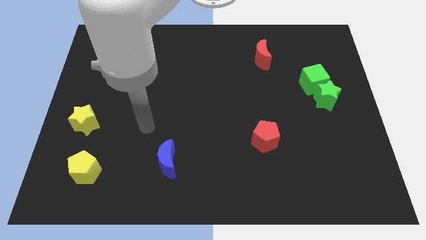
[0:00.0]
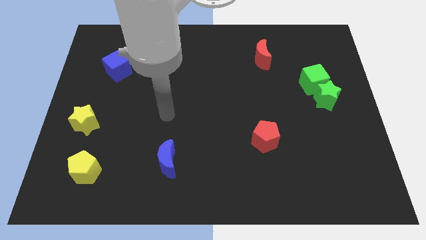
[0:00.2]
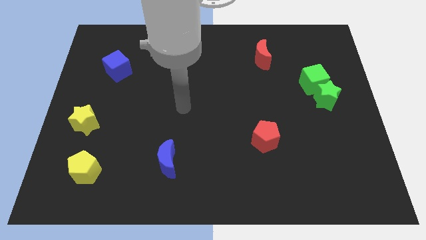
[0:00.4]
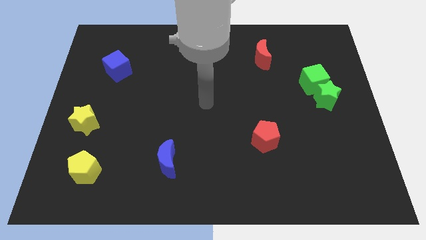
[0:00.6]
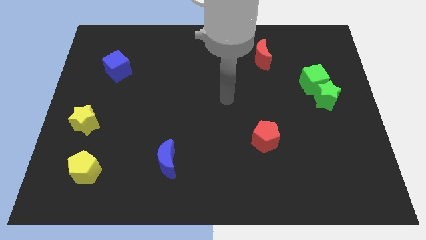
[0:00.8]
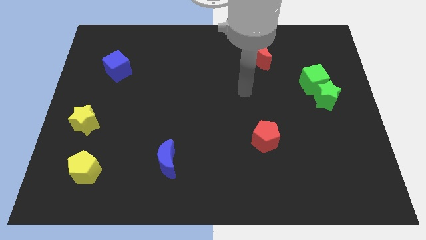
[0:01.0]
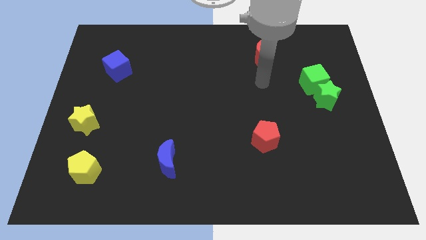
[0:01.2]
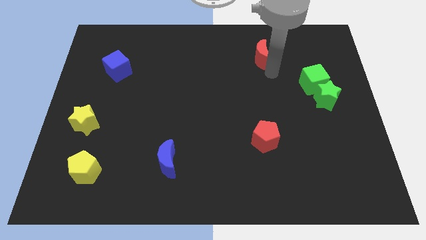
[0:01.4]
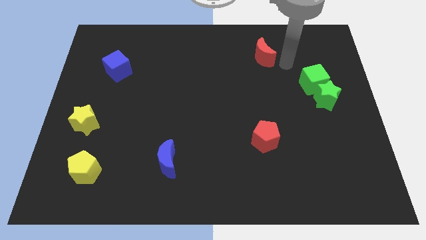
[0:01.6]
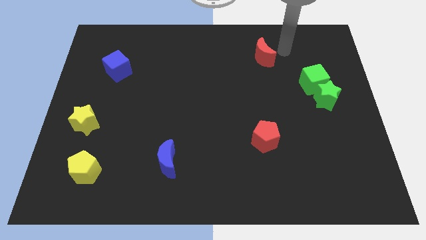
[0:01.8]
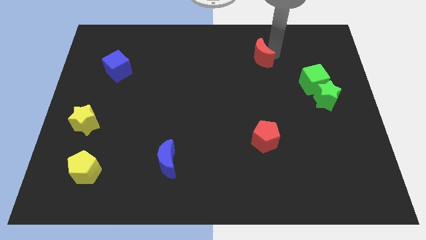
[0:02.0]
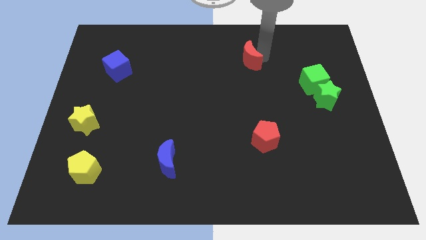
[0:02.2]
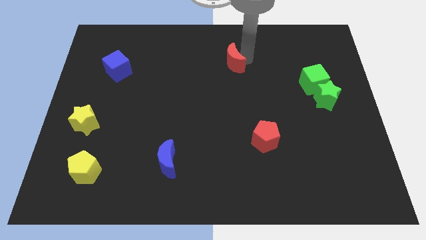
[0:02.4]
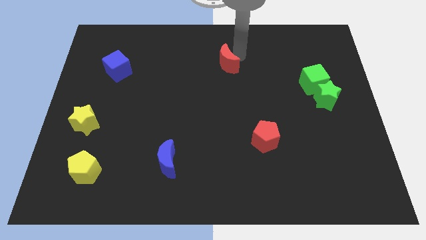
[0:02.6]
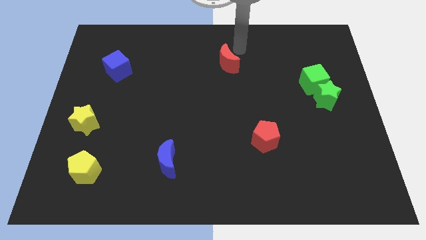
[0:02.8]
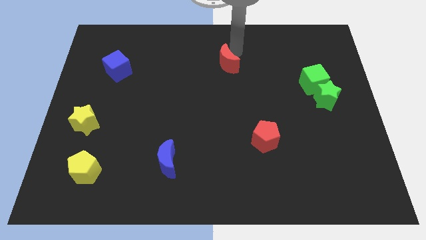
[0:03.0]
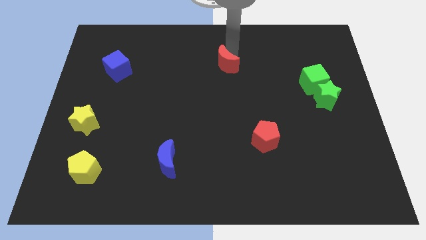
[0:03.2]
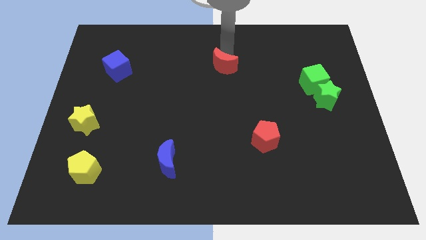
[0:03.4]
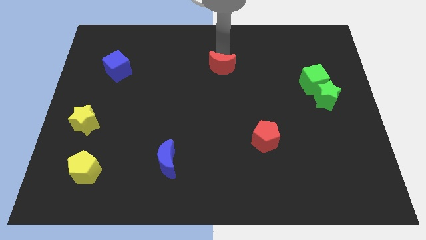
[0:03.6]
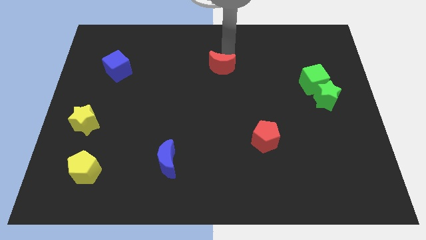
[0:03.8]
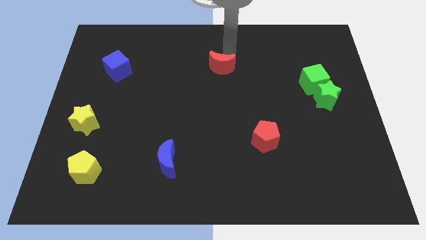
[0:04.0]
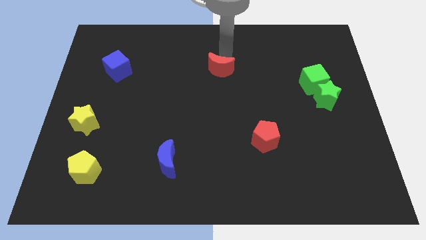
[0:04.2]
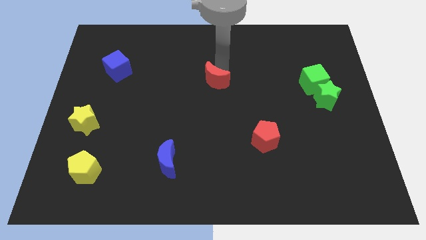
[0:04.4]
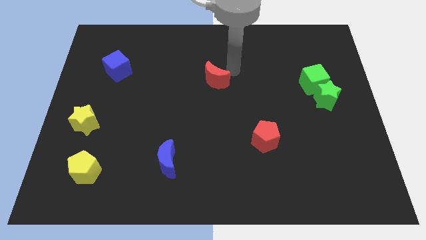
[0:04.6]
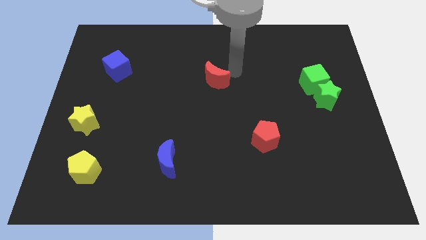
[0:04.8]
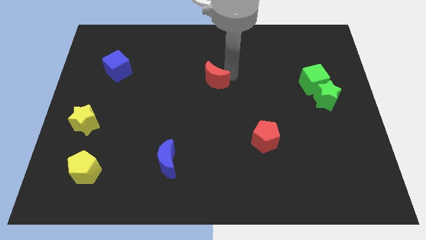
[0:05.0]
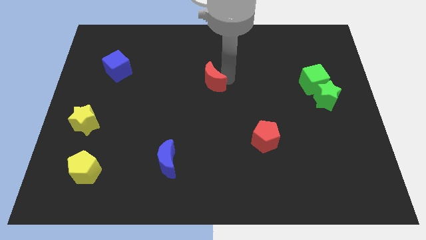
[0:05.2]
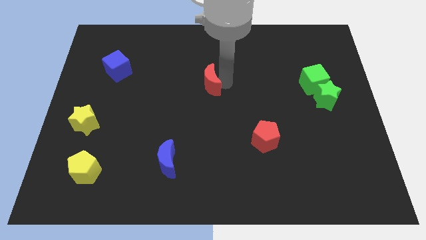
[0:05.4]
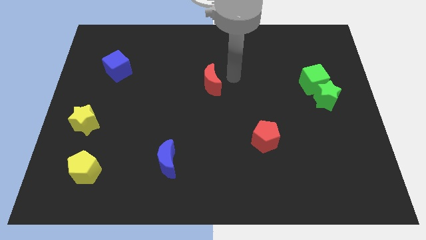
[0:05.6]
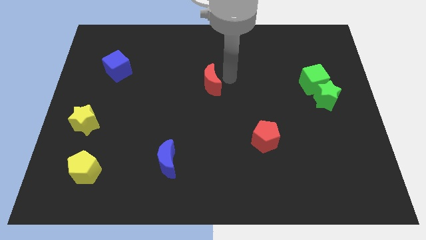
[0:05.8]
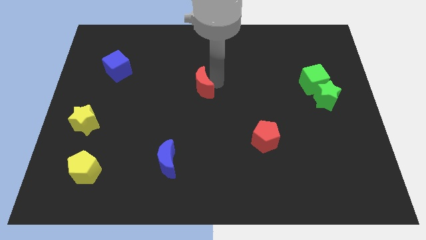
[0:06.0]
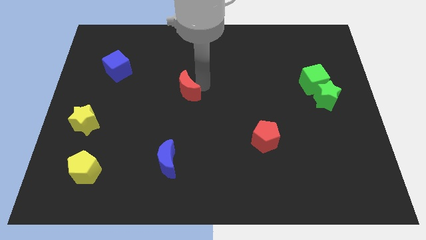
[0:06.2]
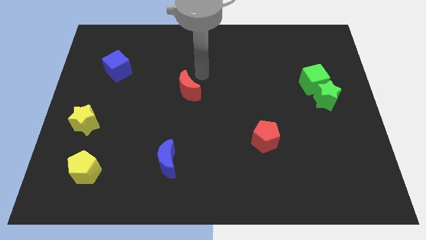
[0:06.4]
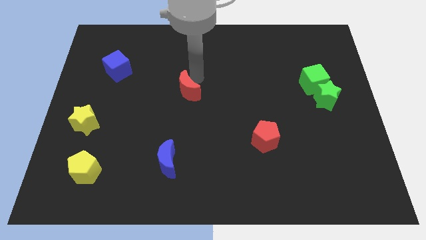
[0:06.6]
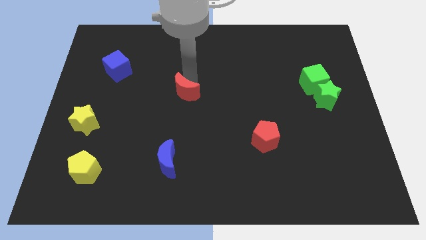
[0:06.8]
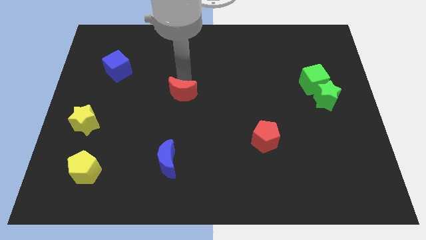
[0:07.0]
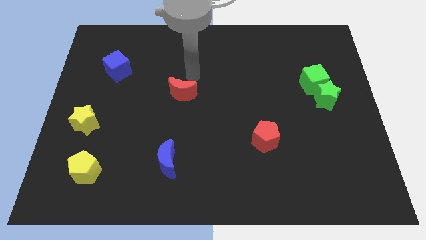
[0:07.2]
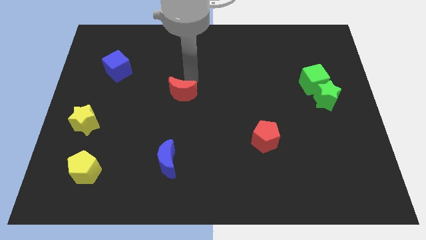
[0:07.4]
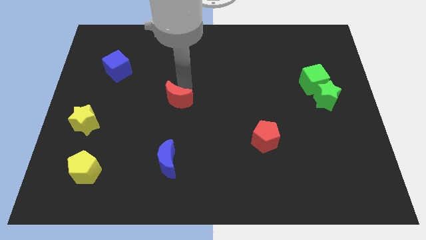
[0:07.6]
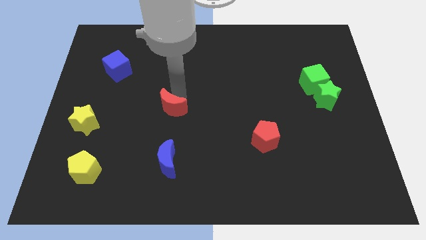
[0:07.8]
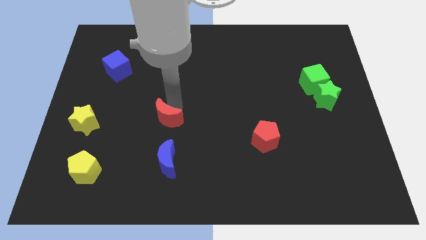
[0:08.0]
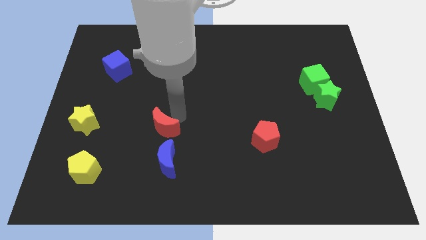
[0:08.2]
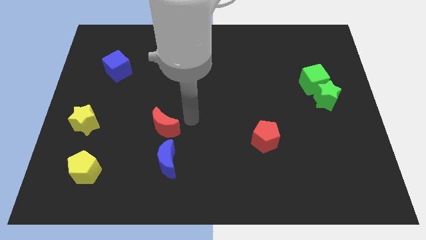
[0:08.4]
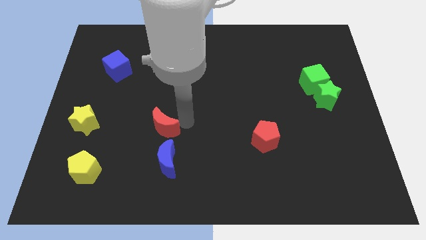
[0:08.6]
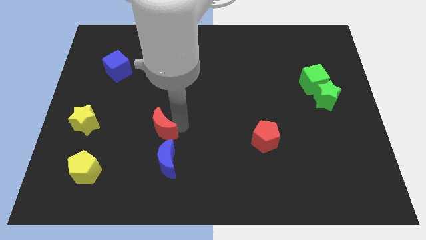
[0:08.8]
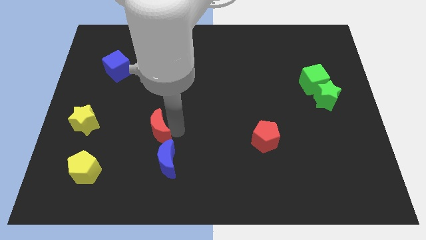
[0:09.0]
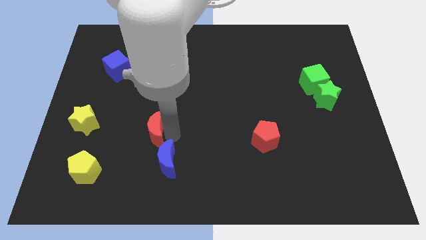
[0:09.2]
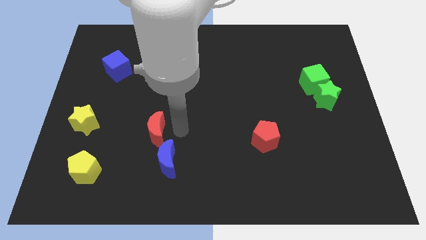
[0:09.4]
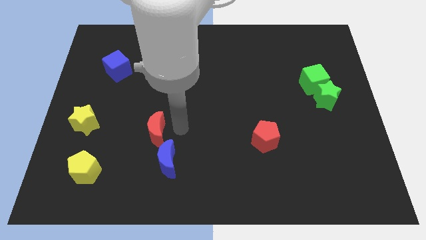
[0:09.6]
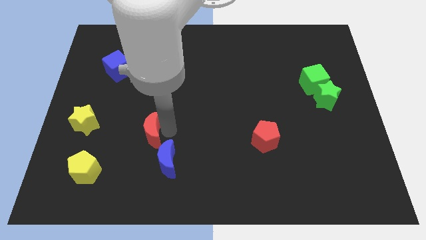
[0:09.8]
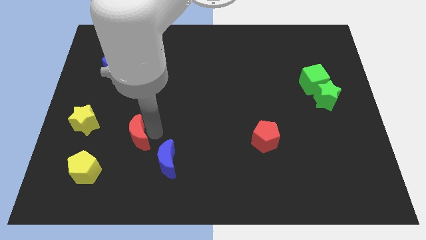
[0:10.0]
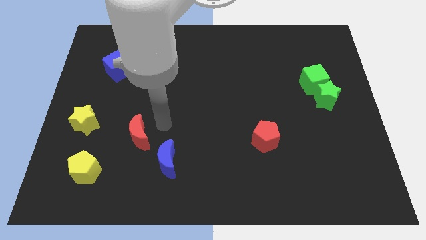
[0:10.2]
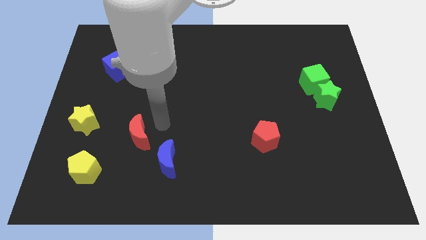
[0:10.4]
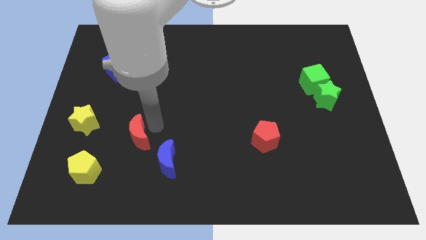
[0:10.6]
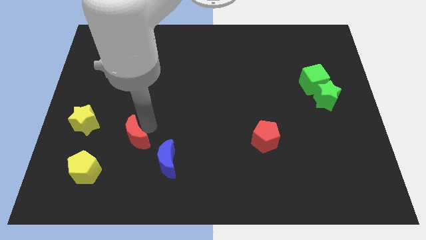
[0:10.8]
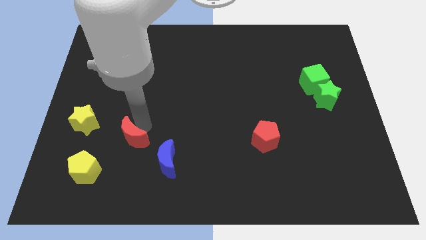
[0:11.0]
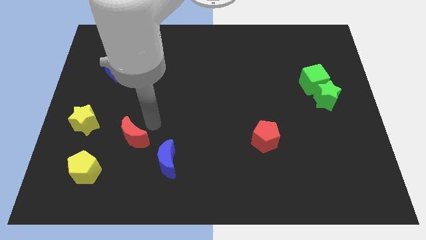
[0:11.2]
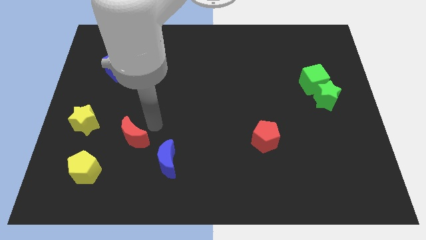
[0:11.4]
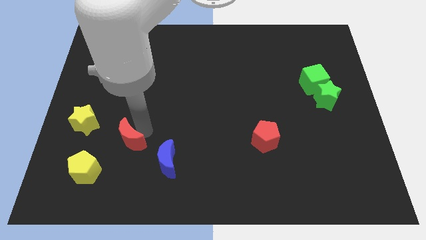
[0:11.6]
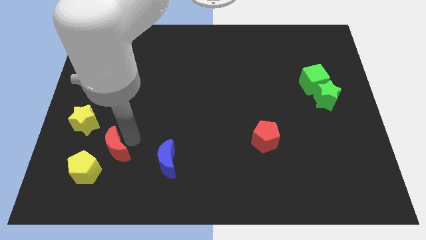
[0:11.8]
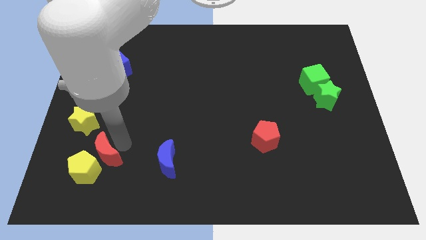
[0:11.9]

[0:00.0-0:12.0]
move the red moon close to the yellow pentagon

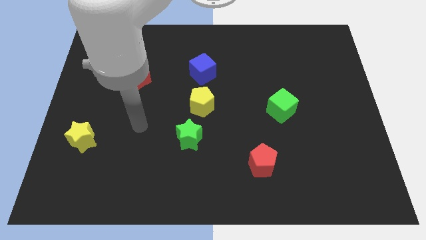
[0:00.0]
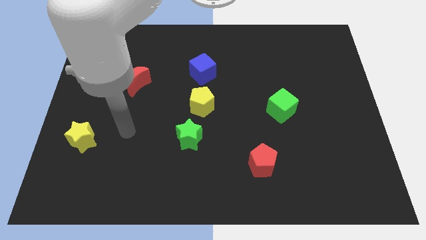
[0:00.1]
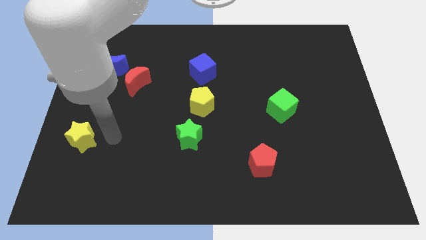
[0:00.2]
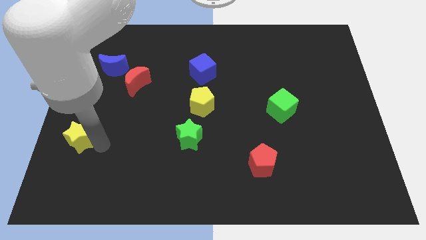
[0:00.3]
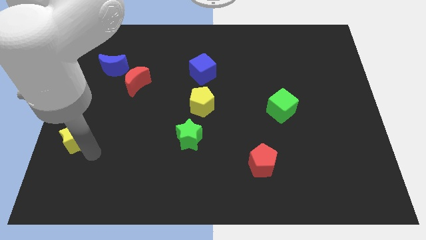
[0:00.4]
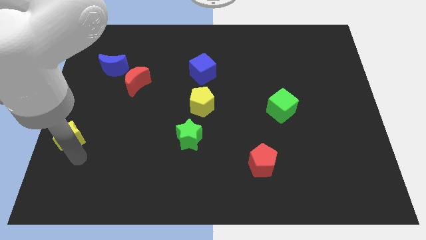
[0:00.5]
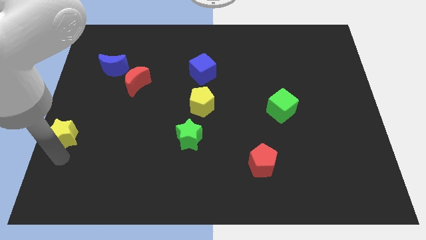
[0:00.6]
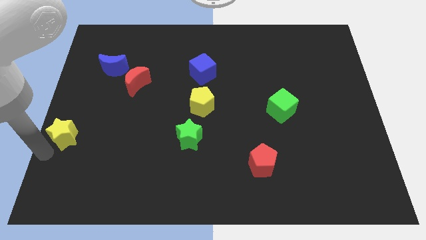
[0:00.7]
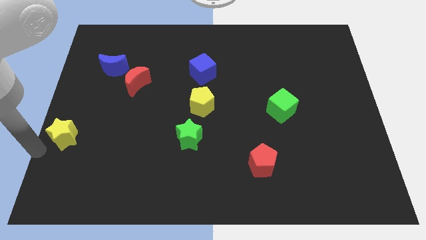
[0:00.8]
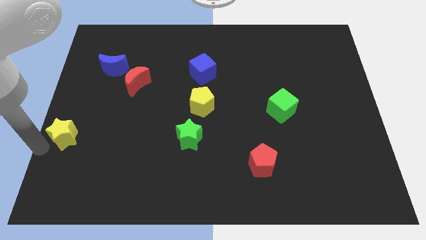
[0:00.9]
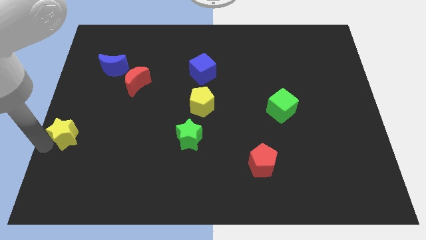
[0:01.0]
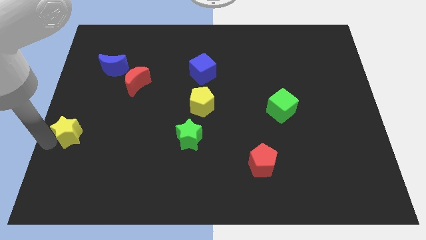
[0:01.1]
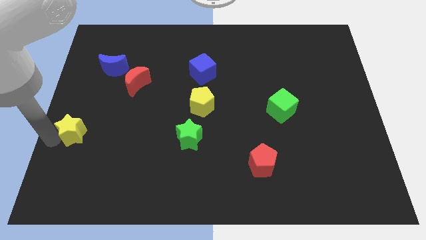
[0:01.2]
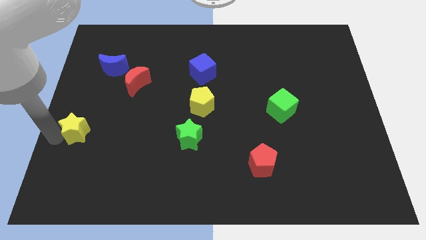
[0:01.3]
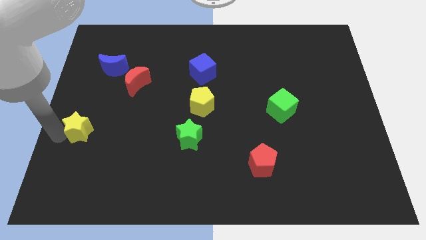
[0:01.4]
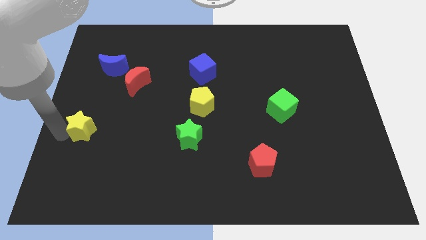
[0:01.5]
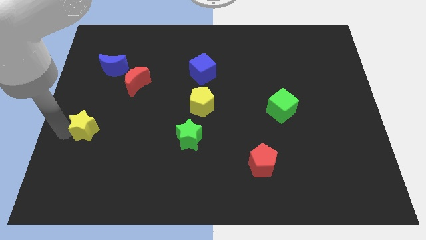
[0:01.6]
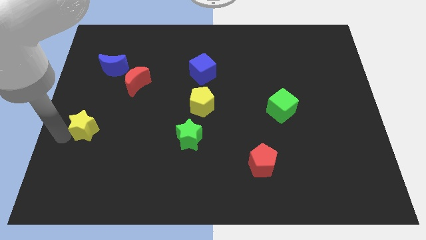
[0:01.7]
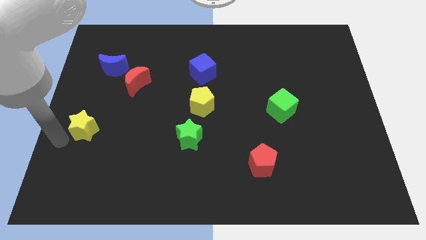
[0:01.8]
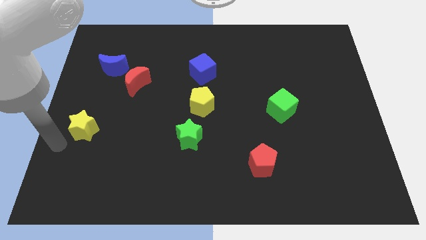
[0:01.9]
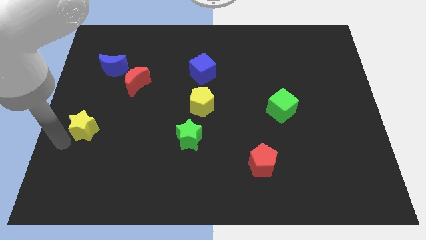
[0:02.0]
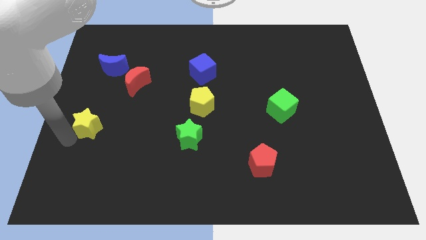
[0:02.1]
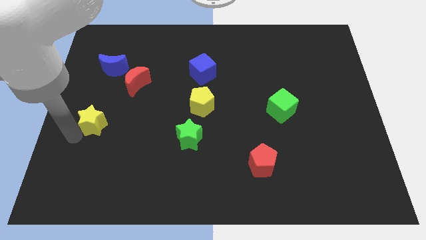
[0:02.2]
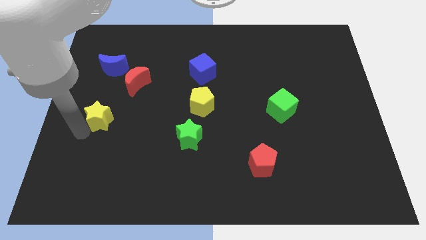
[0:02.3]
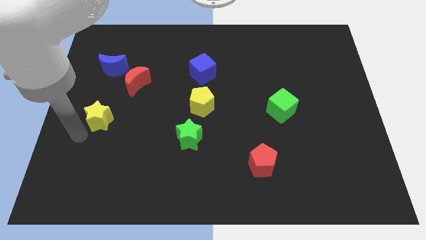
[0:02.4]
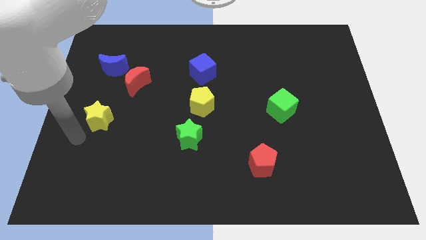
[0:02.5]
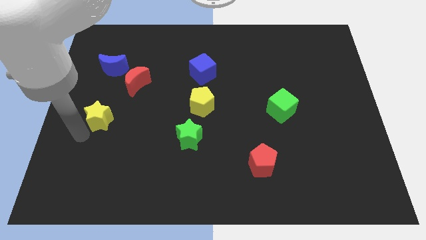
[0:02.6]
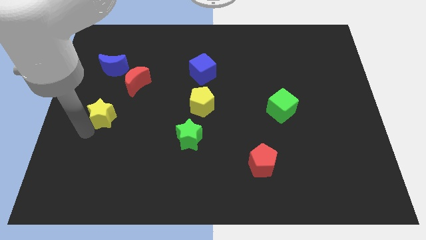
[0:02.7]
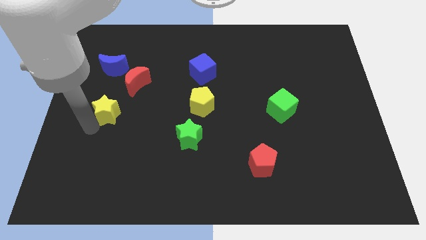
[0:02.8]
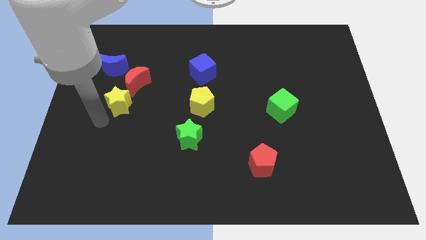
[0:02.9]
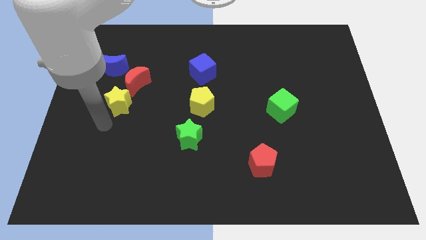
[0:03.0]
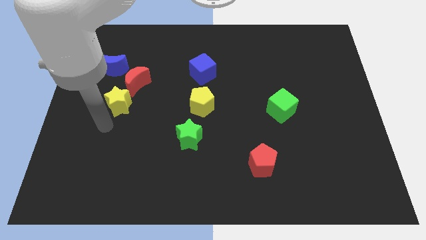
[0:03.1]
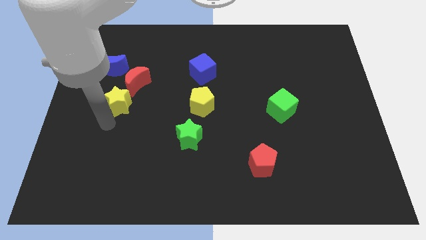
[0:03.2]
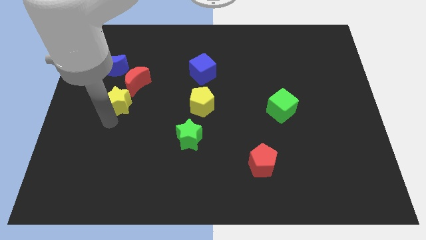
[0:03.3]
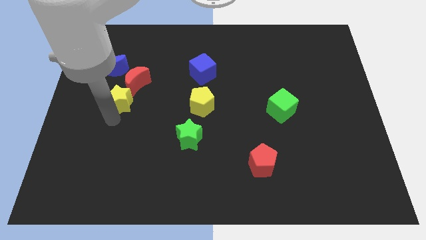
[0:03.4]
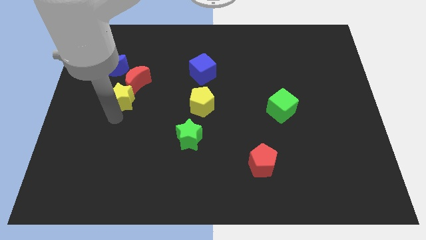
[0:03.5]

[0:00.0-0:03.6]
move the yellow star next to the red moon
